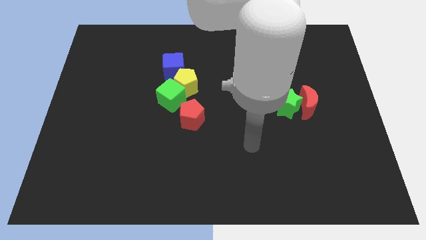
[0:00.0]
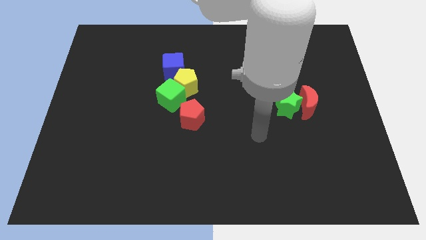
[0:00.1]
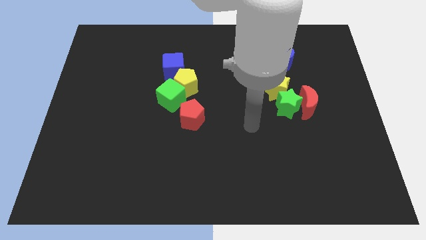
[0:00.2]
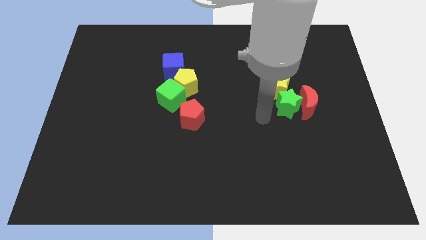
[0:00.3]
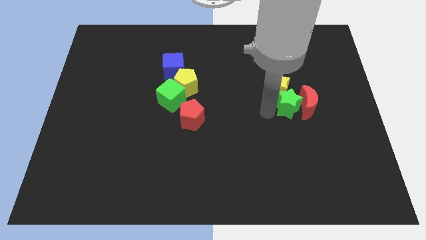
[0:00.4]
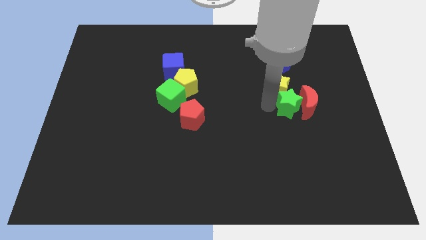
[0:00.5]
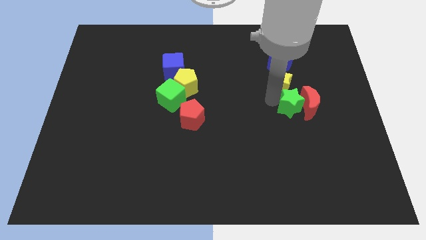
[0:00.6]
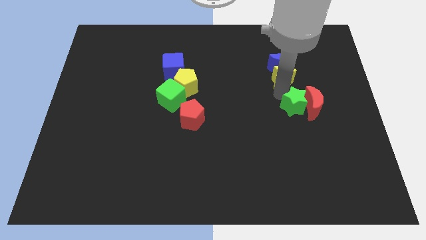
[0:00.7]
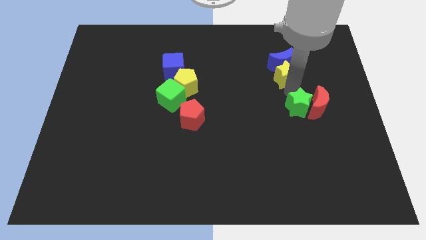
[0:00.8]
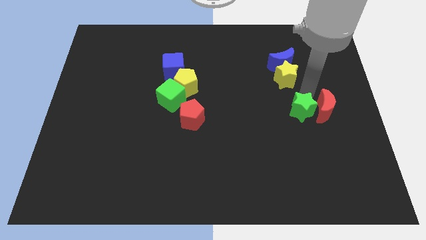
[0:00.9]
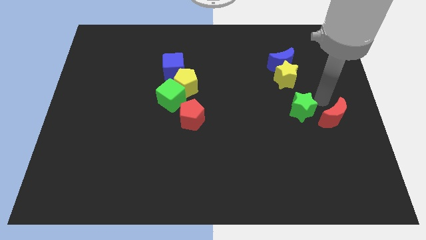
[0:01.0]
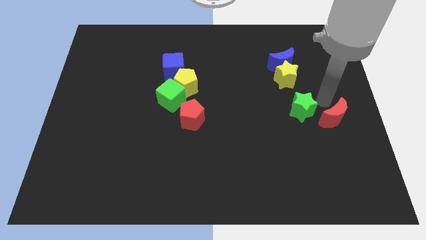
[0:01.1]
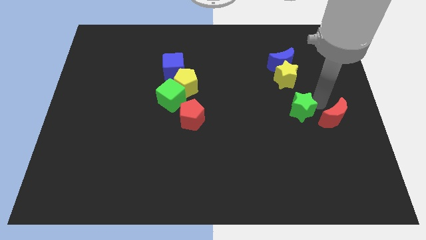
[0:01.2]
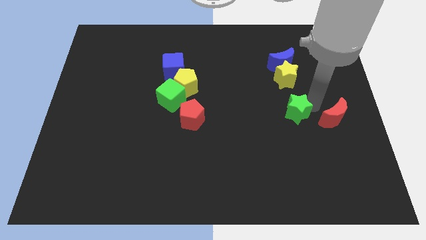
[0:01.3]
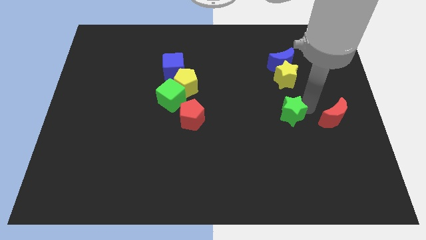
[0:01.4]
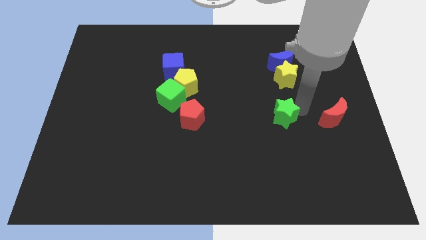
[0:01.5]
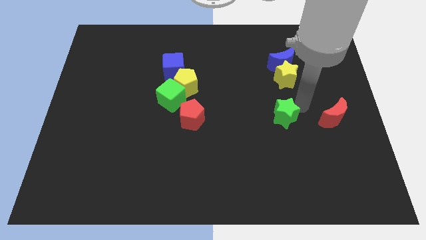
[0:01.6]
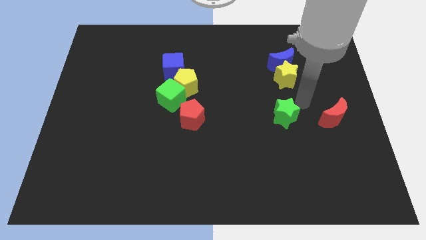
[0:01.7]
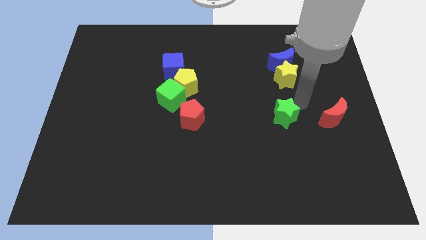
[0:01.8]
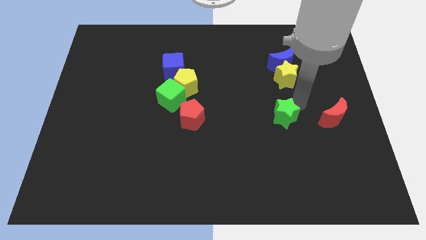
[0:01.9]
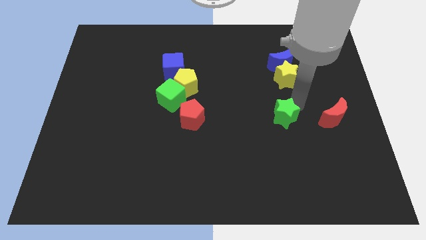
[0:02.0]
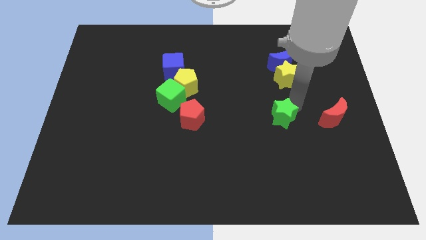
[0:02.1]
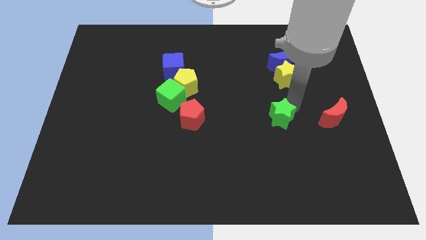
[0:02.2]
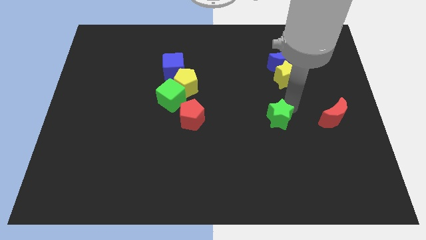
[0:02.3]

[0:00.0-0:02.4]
move the green star away from the red moon and yellow star

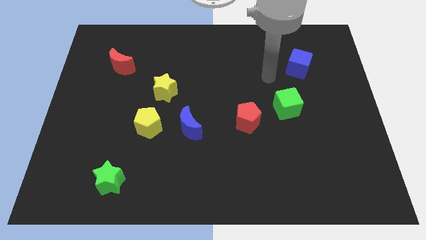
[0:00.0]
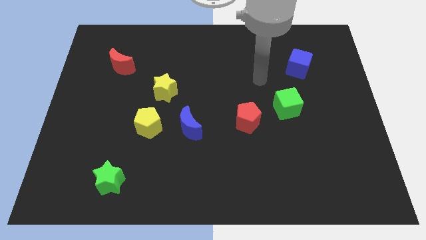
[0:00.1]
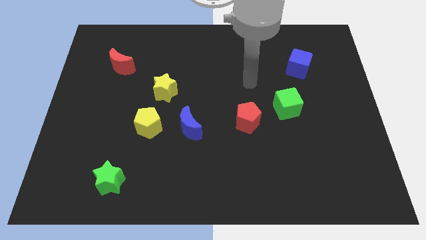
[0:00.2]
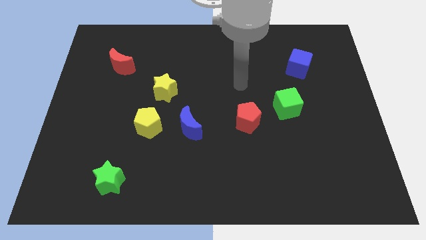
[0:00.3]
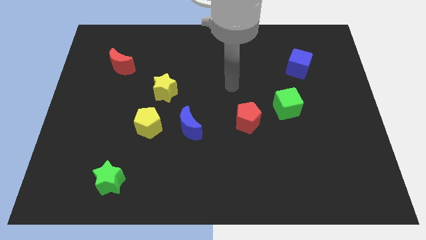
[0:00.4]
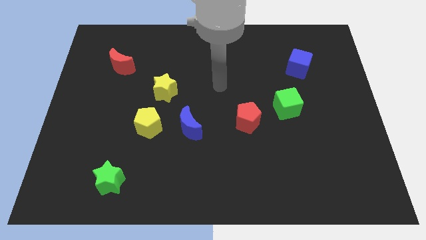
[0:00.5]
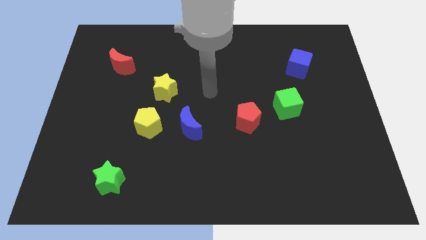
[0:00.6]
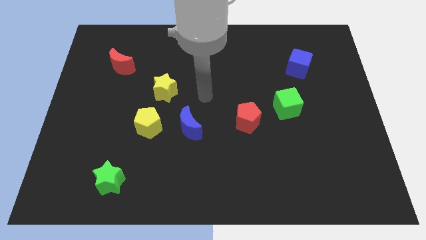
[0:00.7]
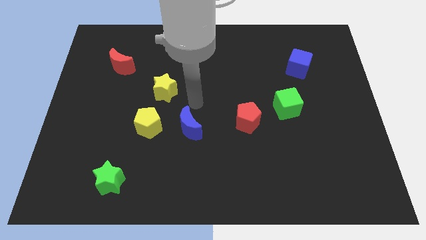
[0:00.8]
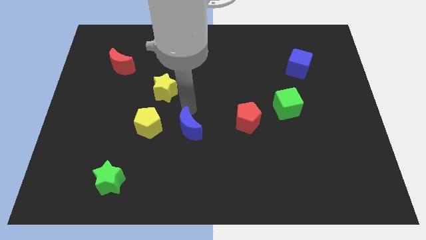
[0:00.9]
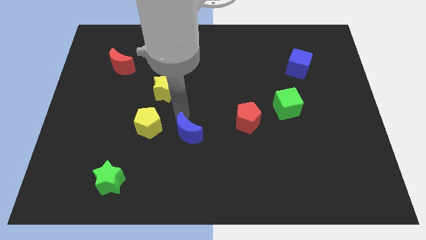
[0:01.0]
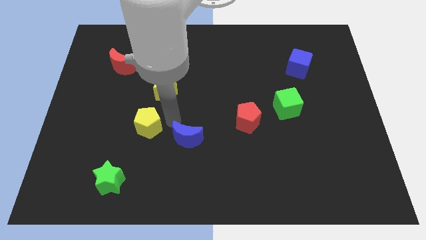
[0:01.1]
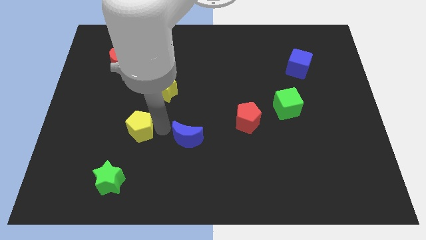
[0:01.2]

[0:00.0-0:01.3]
pull the blue moon apart from the yellow pentagon

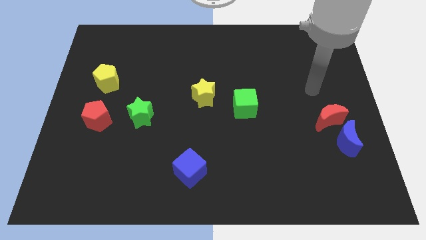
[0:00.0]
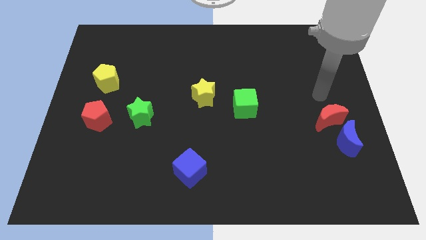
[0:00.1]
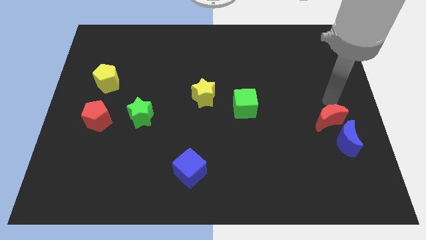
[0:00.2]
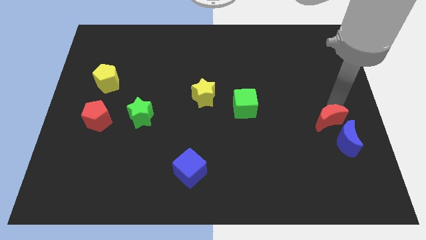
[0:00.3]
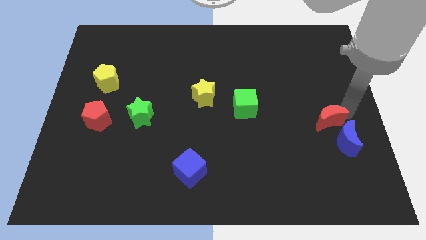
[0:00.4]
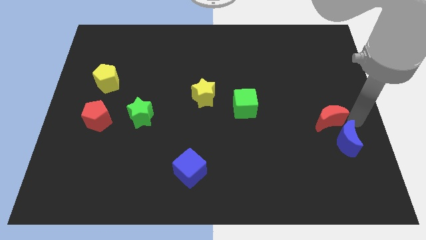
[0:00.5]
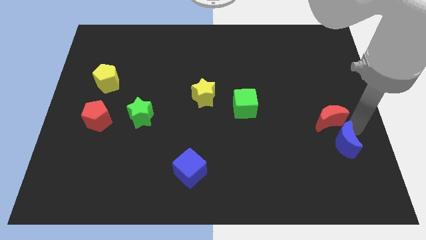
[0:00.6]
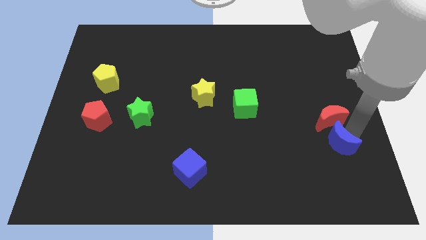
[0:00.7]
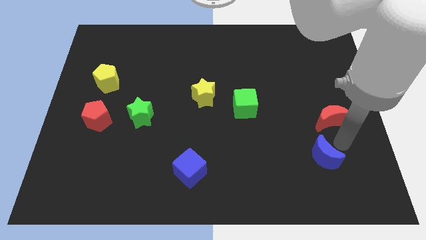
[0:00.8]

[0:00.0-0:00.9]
pull the red moon apart from the blue moon

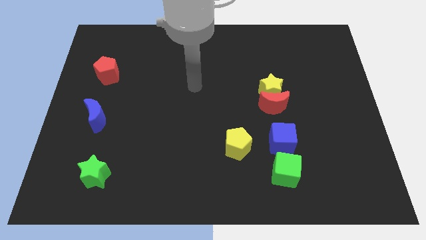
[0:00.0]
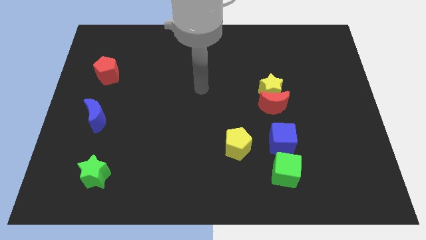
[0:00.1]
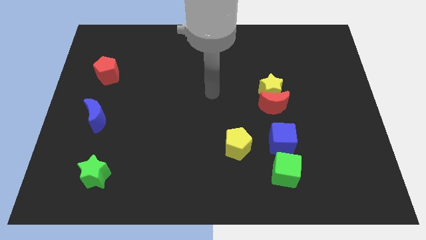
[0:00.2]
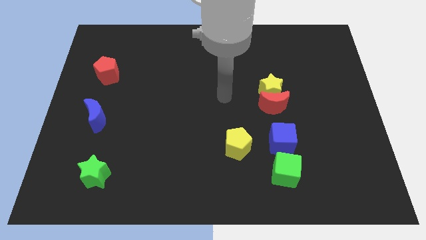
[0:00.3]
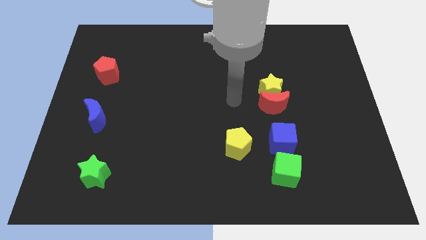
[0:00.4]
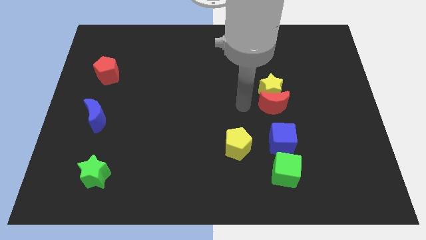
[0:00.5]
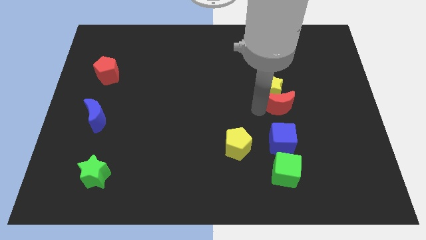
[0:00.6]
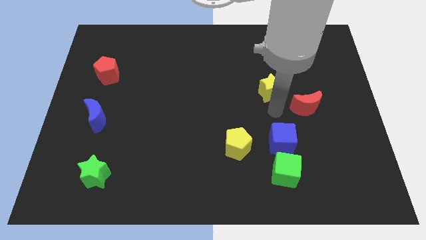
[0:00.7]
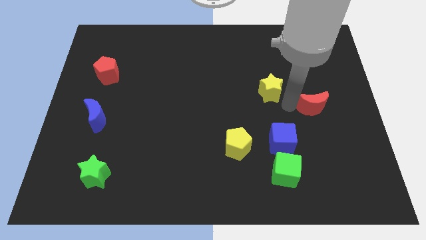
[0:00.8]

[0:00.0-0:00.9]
move the yellow star away from the red moon

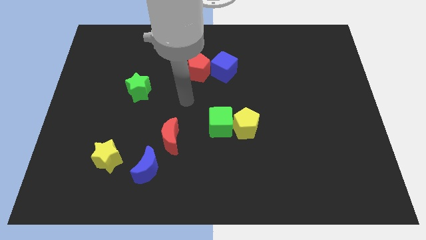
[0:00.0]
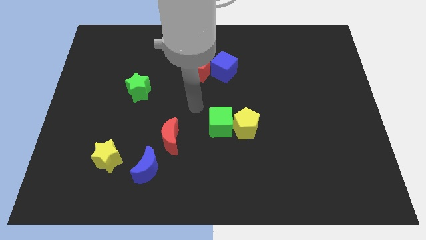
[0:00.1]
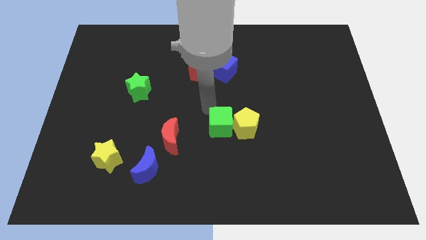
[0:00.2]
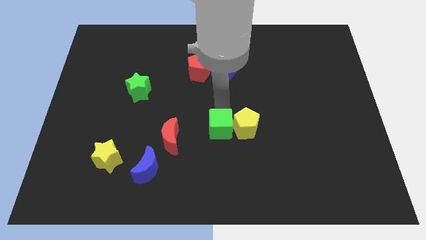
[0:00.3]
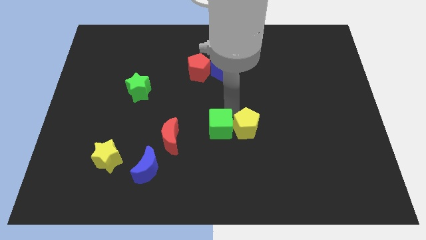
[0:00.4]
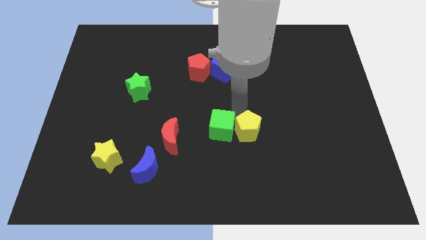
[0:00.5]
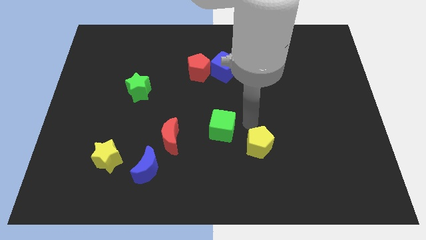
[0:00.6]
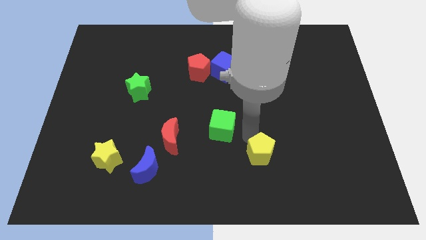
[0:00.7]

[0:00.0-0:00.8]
move the green cube away from the yellow pentagon

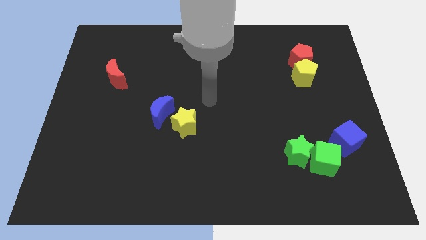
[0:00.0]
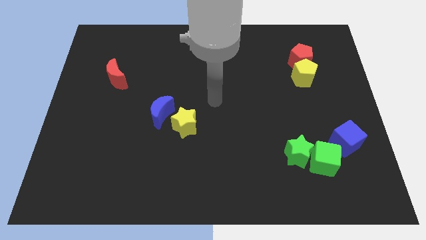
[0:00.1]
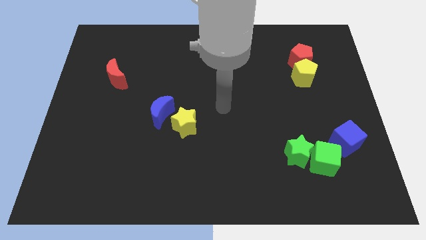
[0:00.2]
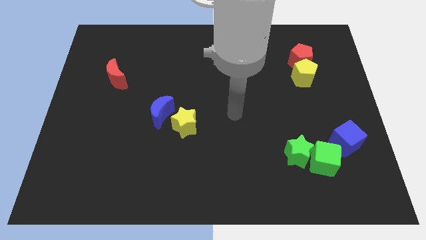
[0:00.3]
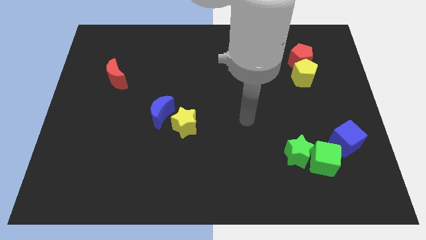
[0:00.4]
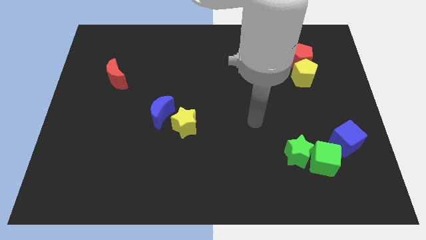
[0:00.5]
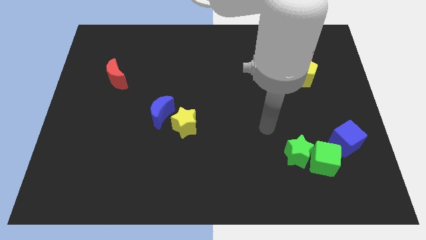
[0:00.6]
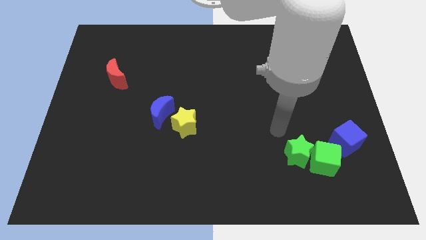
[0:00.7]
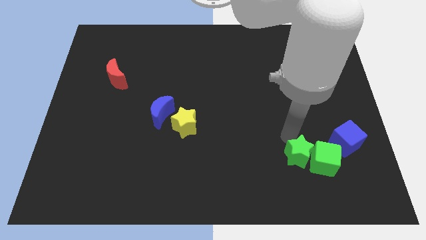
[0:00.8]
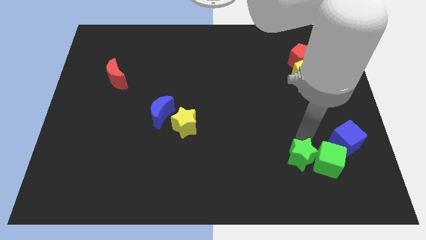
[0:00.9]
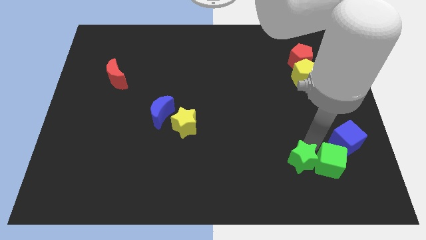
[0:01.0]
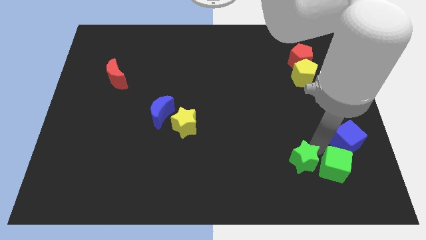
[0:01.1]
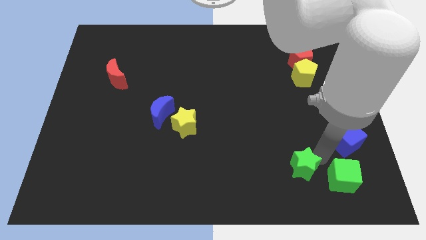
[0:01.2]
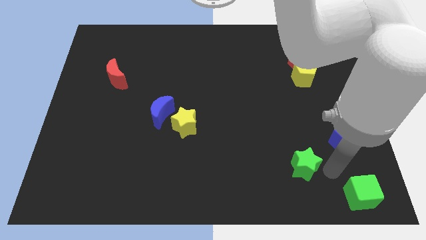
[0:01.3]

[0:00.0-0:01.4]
pull the green star apart from the green cube

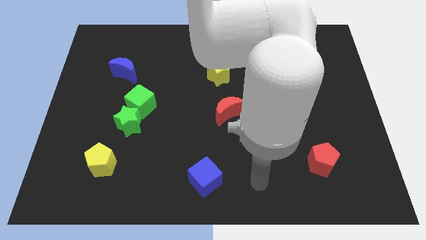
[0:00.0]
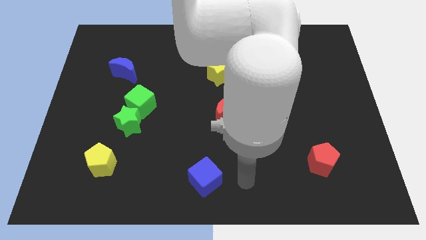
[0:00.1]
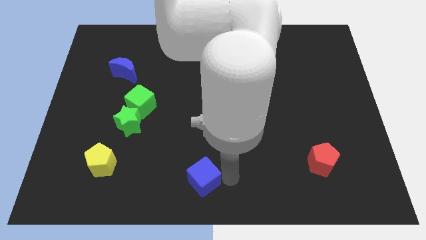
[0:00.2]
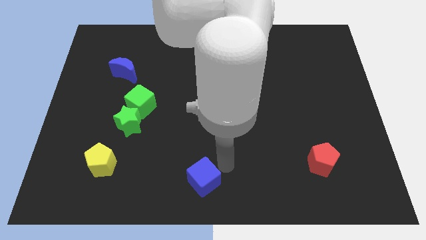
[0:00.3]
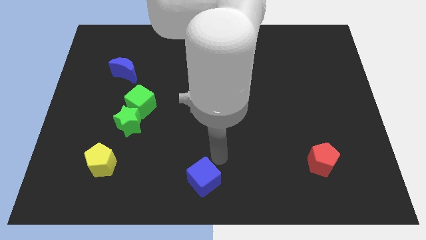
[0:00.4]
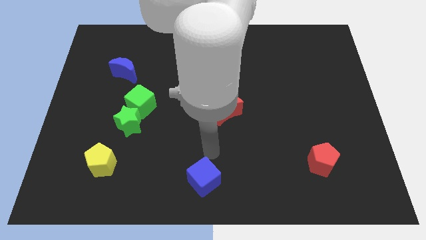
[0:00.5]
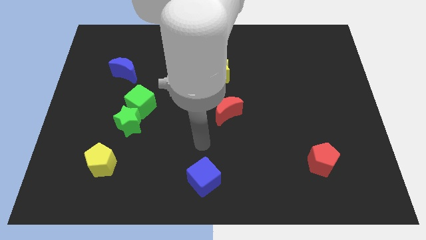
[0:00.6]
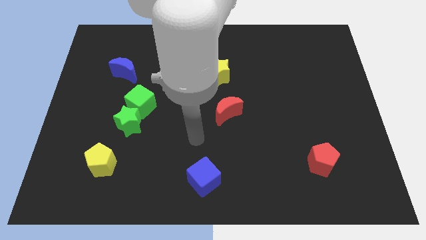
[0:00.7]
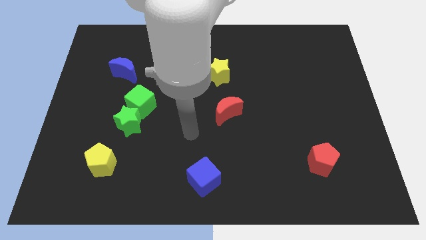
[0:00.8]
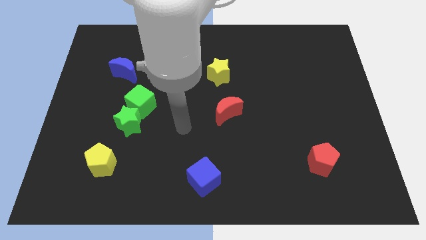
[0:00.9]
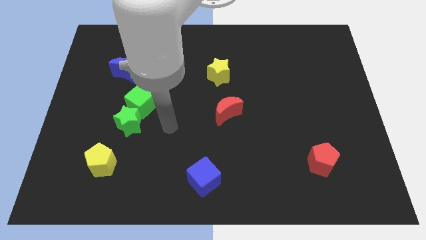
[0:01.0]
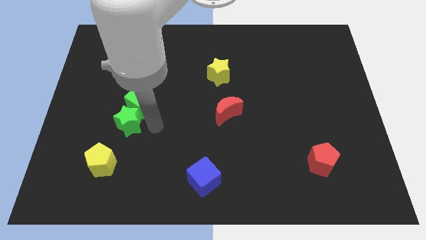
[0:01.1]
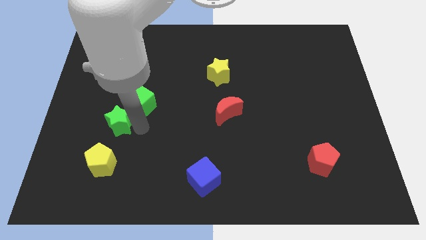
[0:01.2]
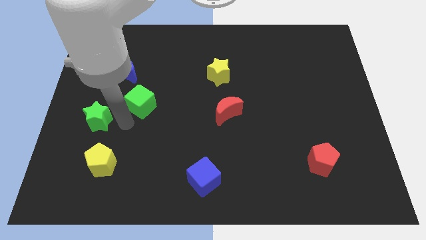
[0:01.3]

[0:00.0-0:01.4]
separate the green cube from the green star

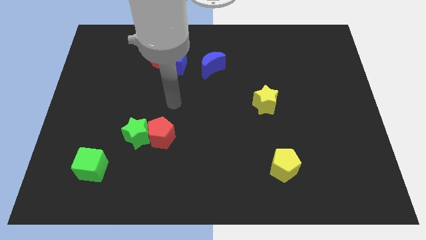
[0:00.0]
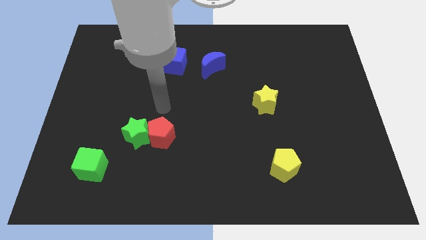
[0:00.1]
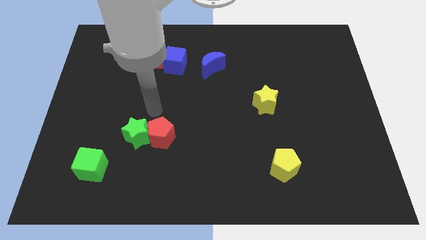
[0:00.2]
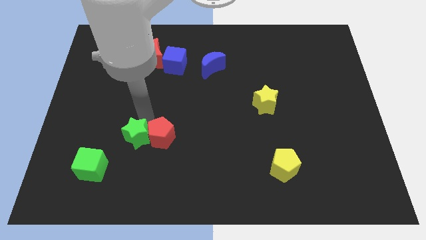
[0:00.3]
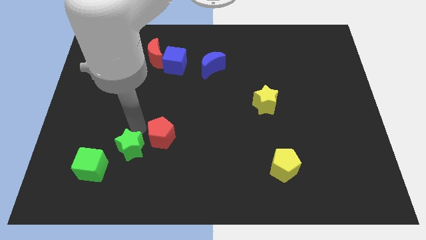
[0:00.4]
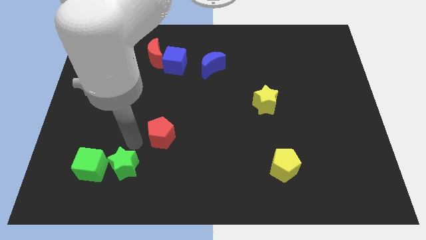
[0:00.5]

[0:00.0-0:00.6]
pull the red pentagon apart from the green star
